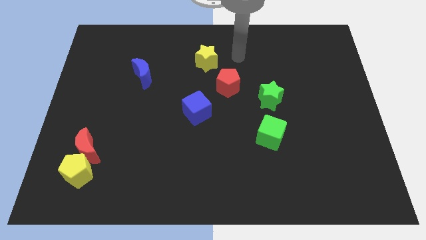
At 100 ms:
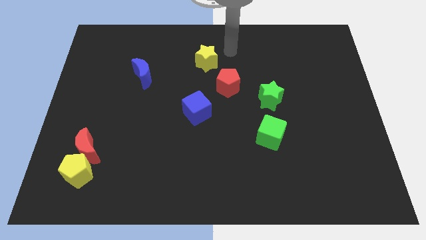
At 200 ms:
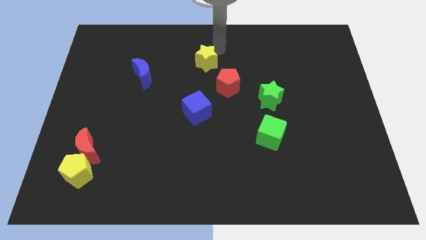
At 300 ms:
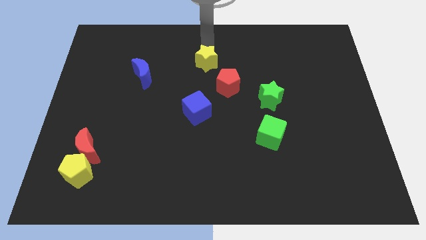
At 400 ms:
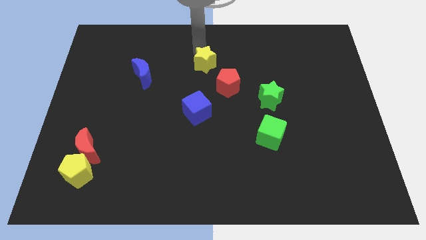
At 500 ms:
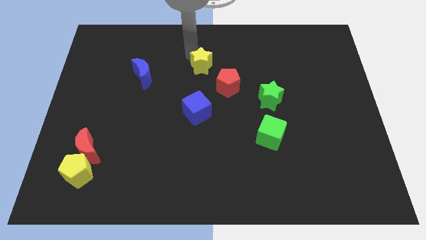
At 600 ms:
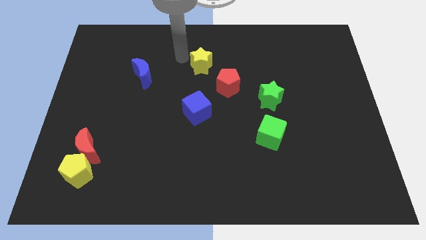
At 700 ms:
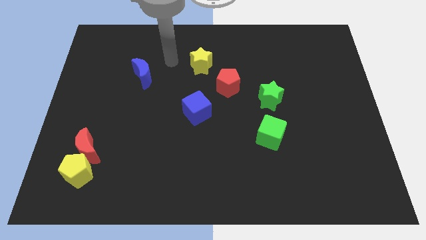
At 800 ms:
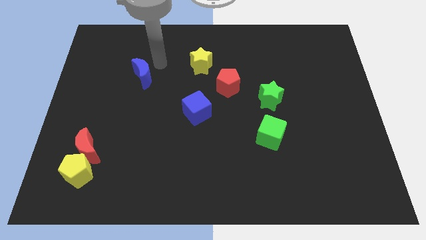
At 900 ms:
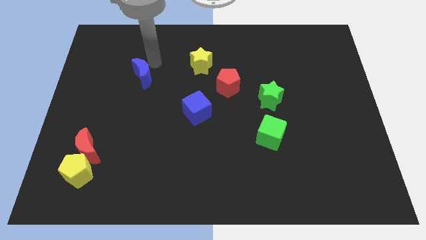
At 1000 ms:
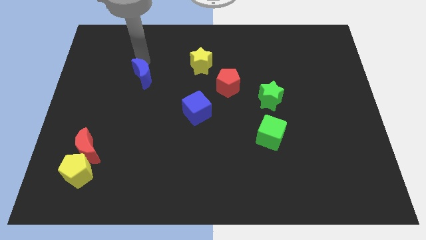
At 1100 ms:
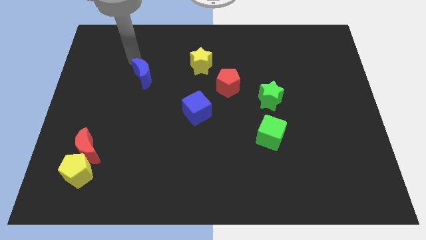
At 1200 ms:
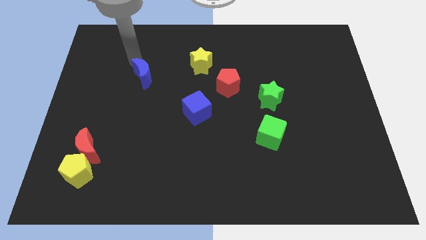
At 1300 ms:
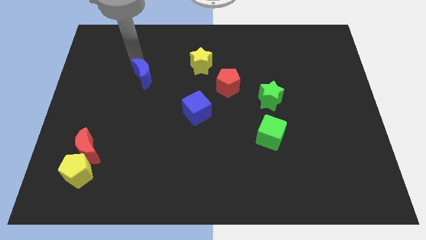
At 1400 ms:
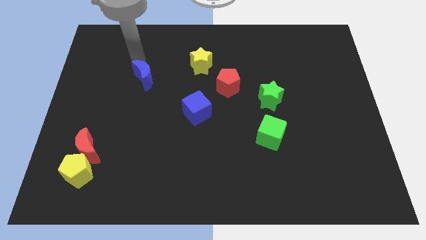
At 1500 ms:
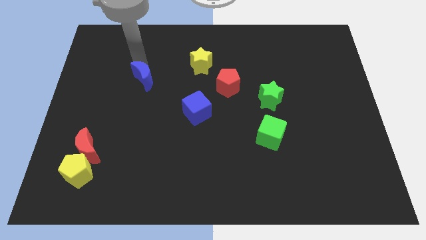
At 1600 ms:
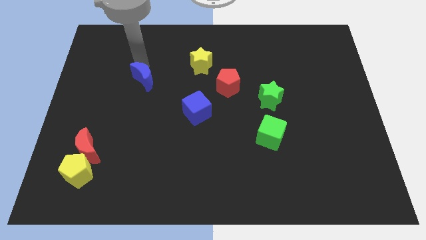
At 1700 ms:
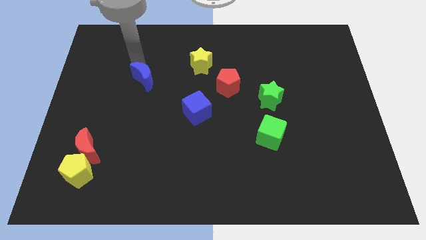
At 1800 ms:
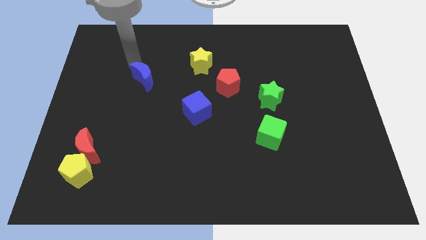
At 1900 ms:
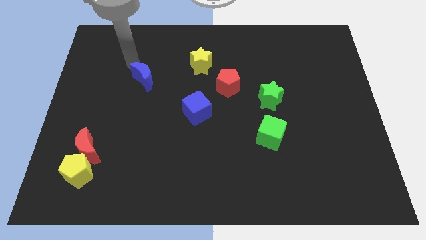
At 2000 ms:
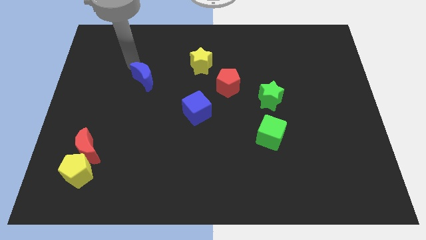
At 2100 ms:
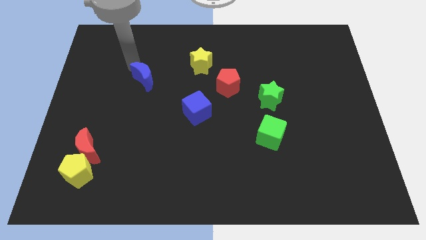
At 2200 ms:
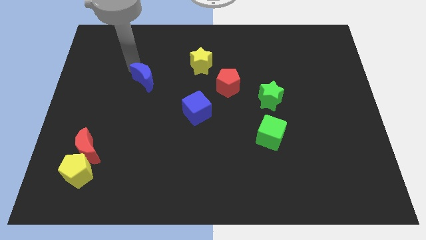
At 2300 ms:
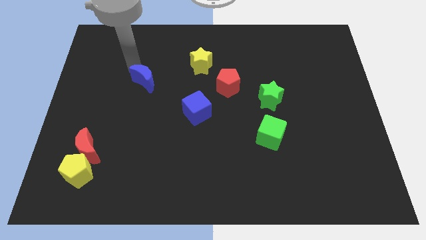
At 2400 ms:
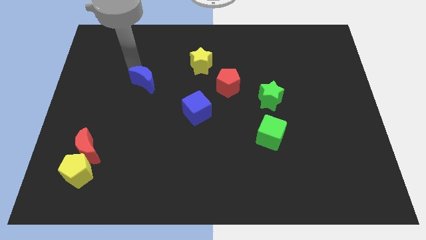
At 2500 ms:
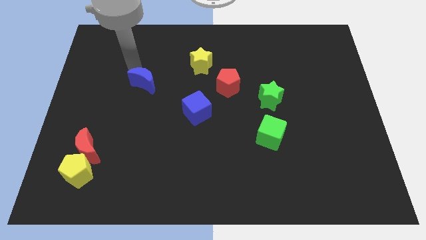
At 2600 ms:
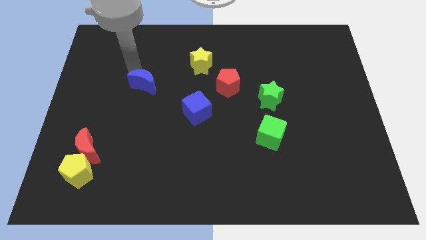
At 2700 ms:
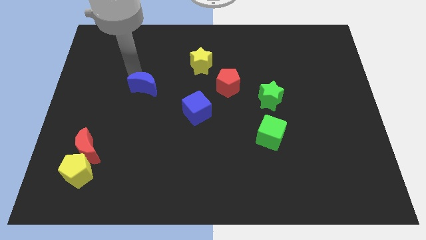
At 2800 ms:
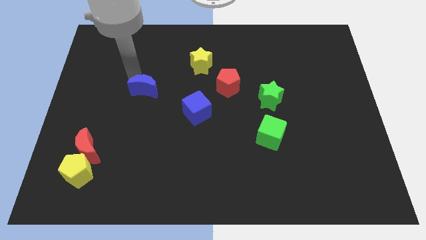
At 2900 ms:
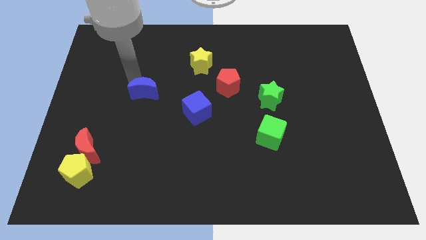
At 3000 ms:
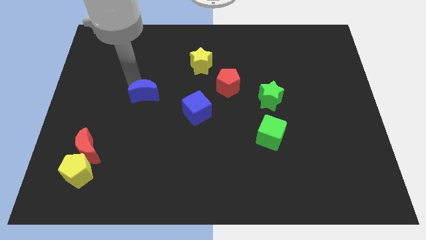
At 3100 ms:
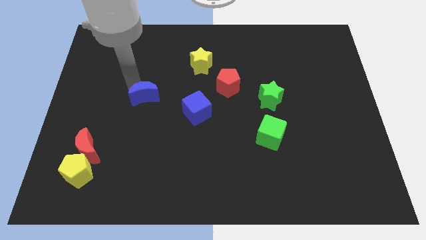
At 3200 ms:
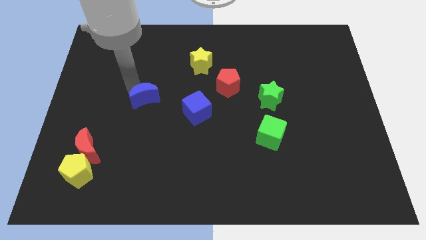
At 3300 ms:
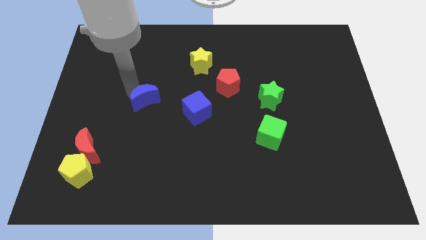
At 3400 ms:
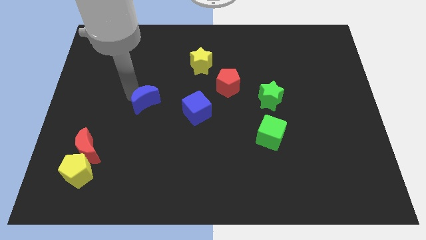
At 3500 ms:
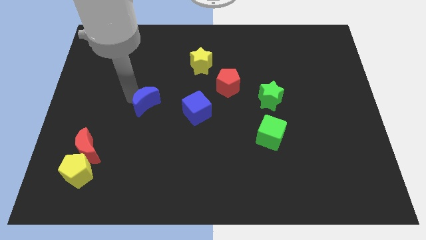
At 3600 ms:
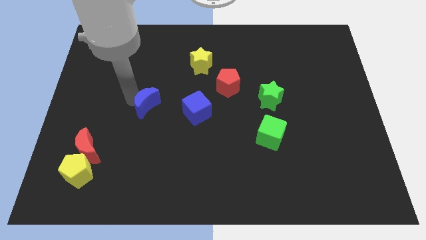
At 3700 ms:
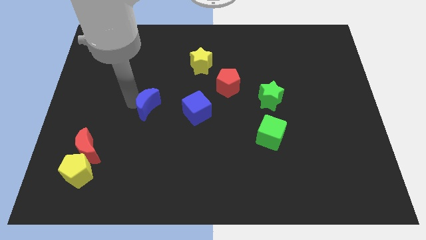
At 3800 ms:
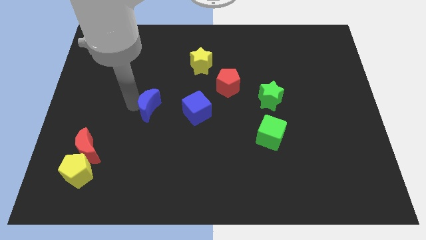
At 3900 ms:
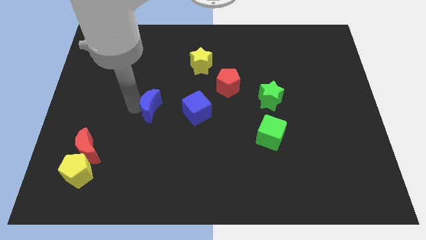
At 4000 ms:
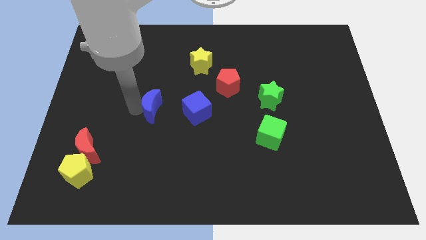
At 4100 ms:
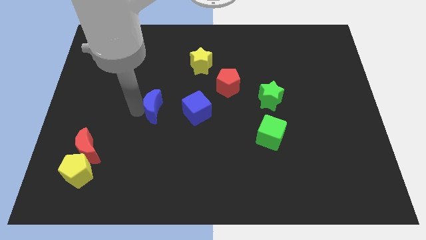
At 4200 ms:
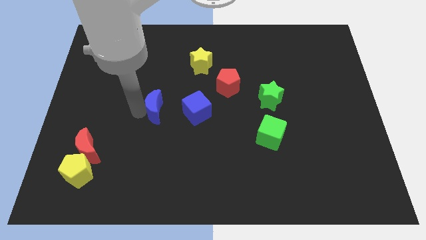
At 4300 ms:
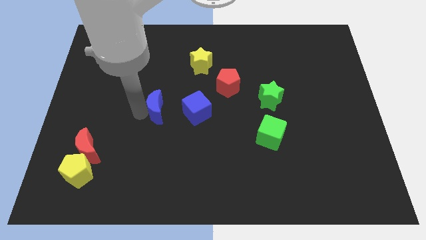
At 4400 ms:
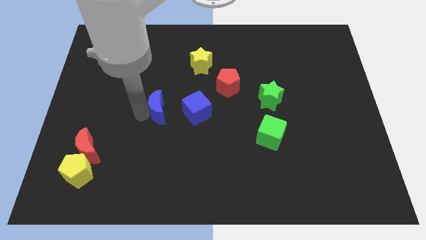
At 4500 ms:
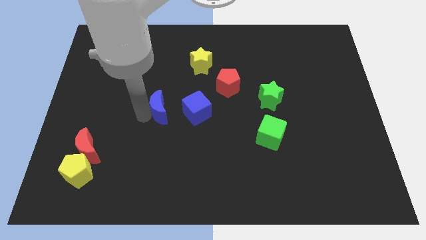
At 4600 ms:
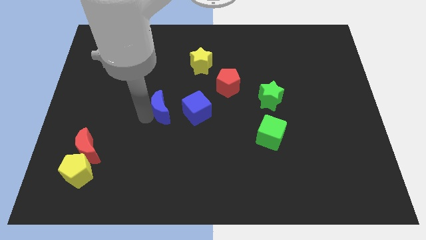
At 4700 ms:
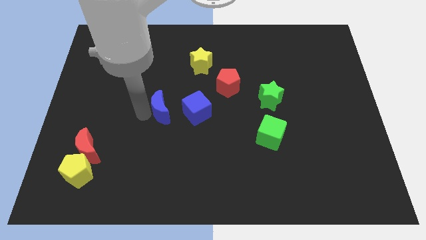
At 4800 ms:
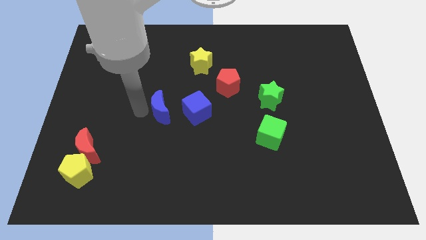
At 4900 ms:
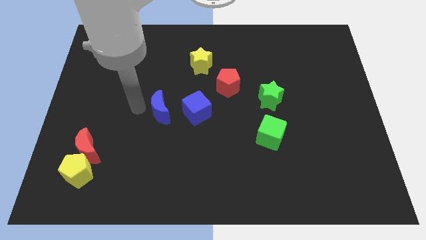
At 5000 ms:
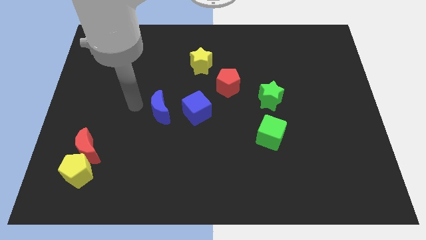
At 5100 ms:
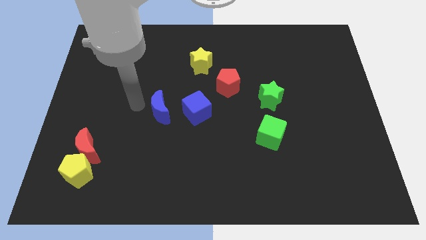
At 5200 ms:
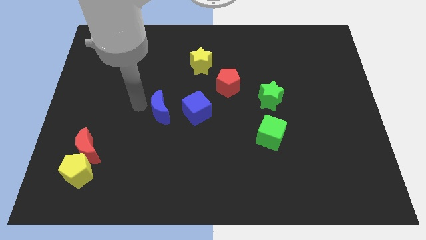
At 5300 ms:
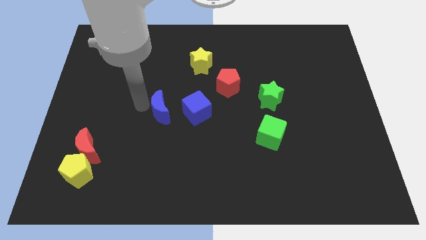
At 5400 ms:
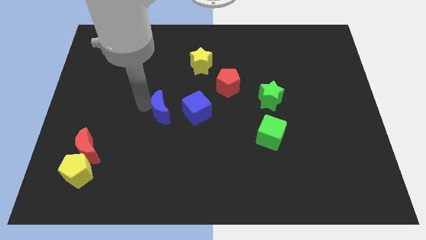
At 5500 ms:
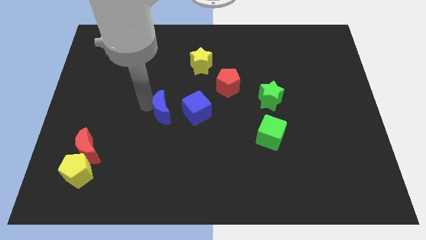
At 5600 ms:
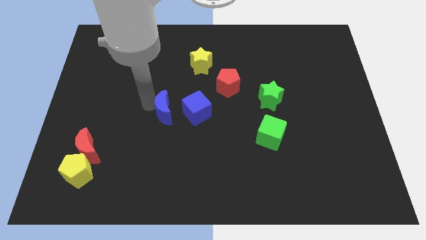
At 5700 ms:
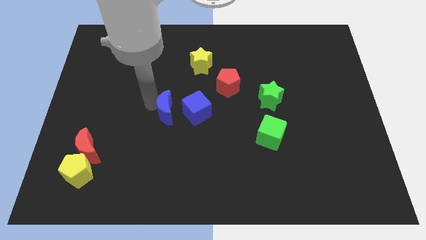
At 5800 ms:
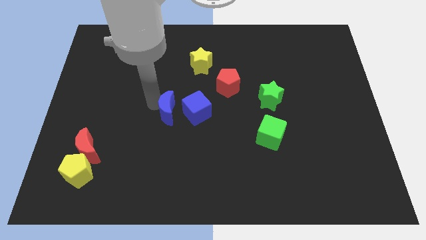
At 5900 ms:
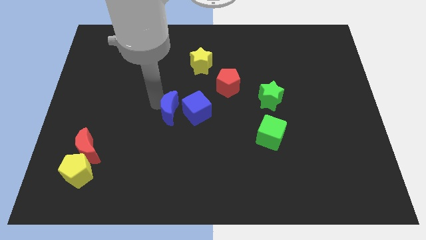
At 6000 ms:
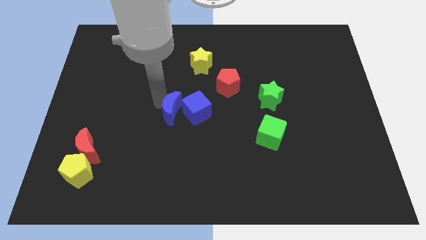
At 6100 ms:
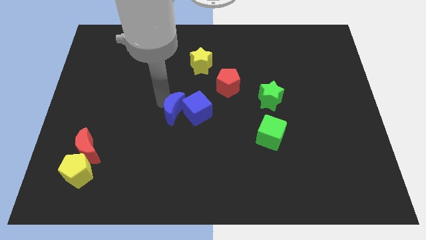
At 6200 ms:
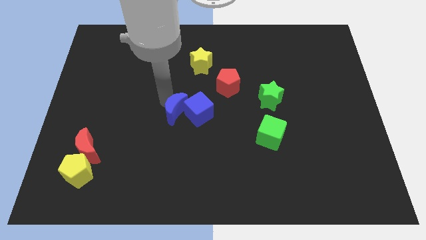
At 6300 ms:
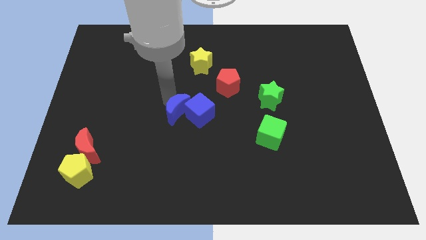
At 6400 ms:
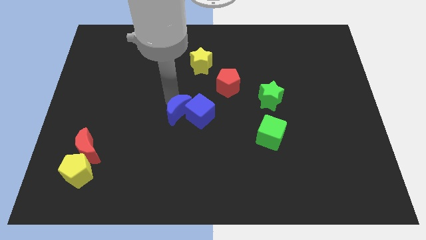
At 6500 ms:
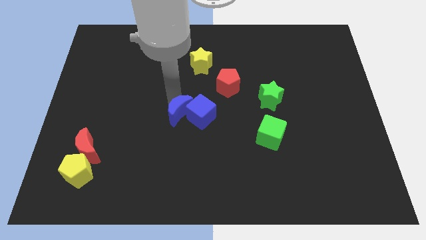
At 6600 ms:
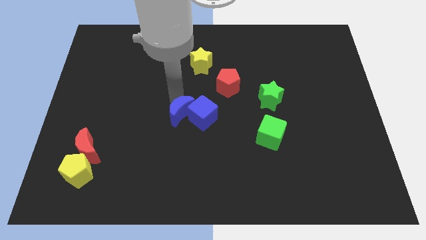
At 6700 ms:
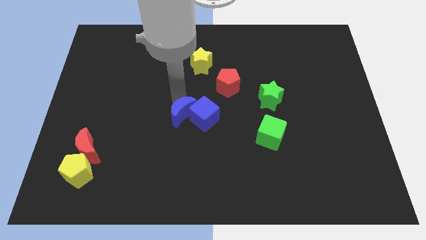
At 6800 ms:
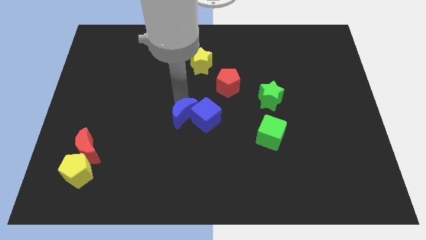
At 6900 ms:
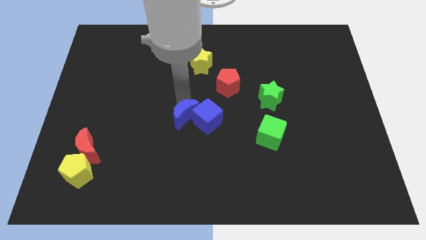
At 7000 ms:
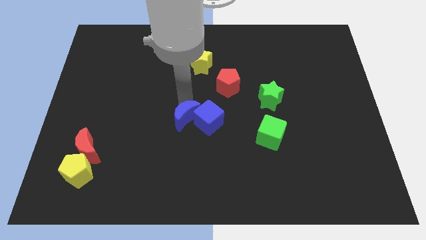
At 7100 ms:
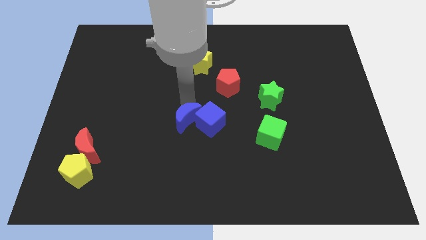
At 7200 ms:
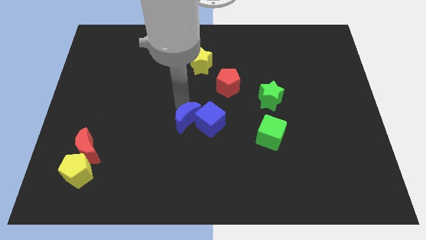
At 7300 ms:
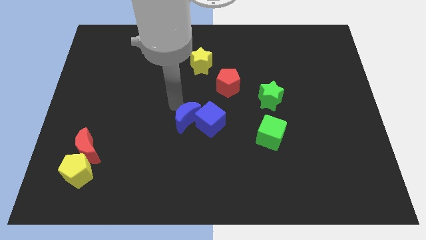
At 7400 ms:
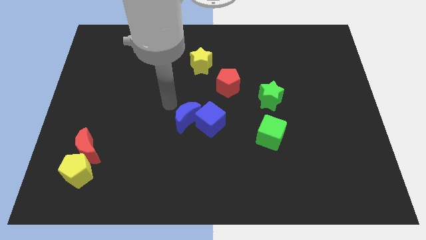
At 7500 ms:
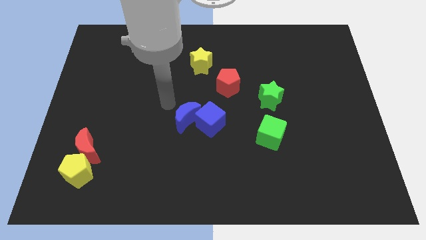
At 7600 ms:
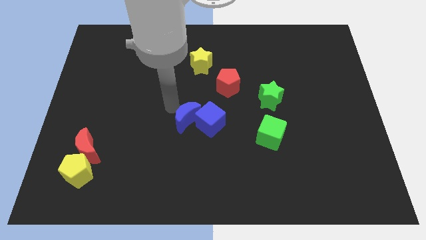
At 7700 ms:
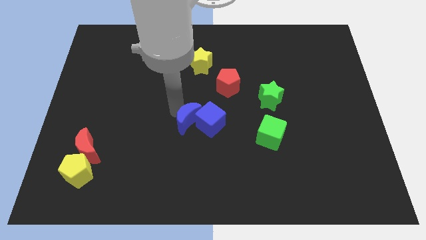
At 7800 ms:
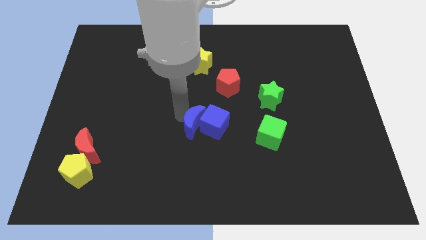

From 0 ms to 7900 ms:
slide the blue moon downwards and to the right diagonally
